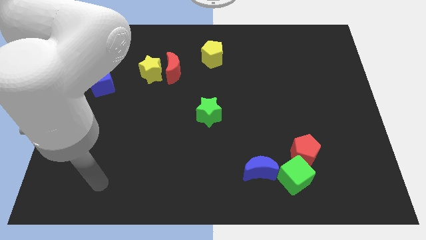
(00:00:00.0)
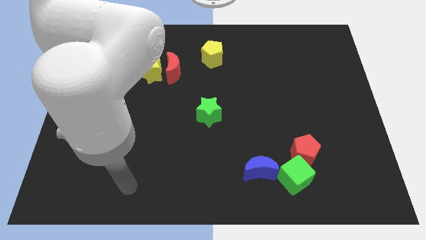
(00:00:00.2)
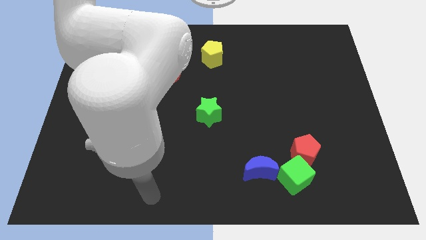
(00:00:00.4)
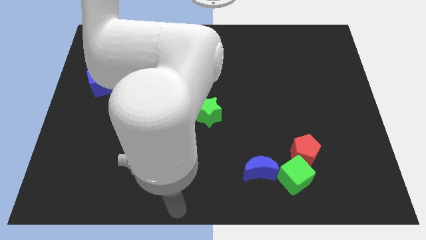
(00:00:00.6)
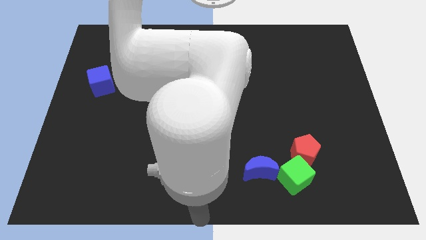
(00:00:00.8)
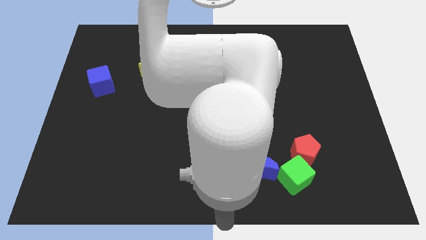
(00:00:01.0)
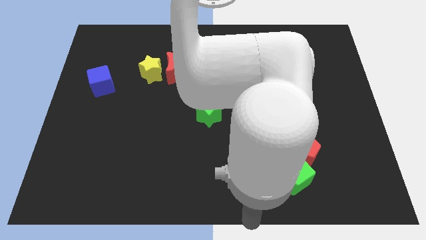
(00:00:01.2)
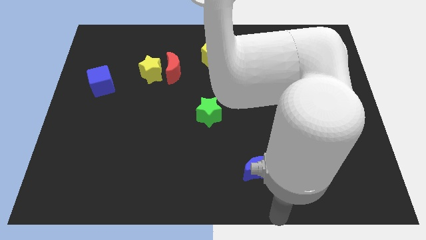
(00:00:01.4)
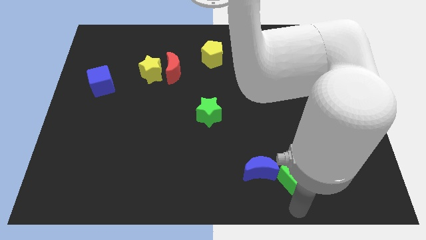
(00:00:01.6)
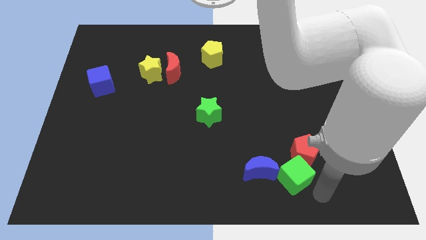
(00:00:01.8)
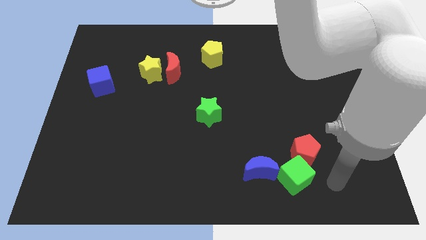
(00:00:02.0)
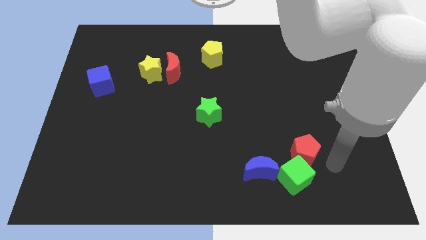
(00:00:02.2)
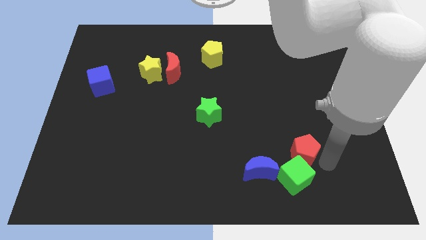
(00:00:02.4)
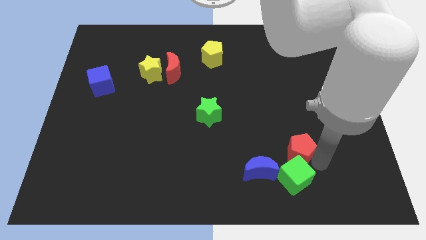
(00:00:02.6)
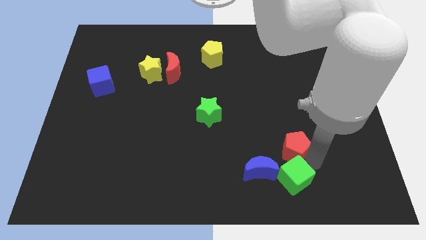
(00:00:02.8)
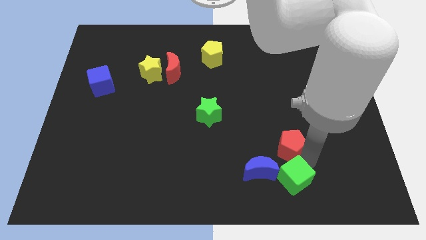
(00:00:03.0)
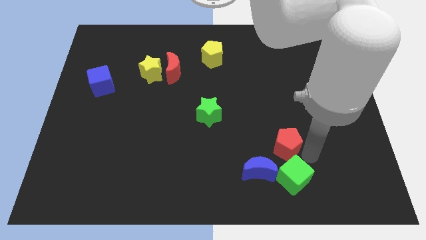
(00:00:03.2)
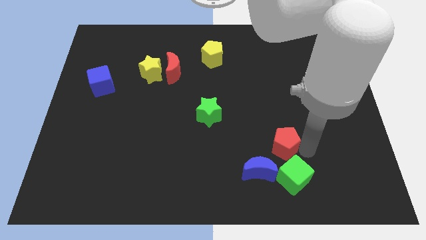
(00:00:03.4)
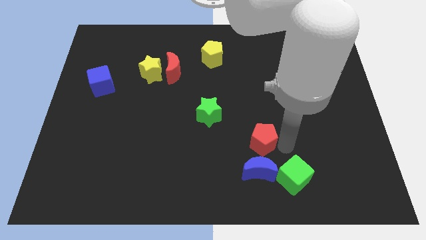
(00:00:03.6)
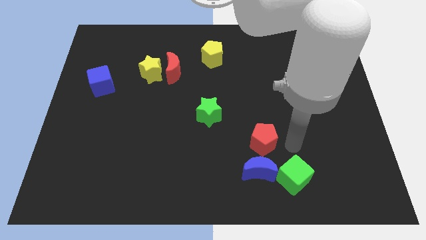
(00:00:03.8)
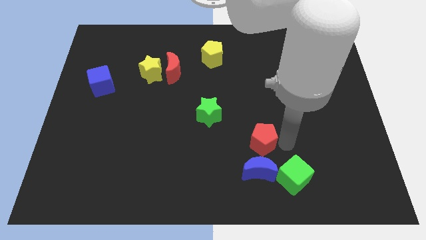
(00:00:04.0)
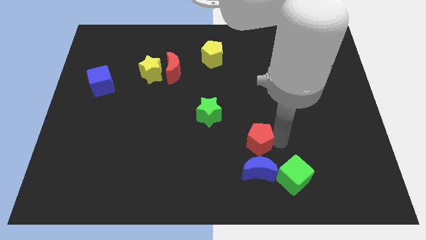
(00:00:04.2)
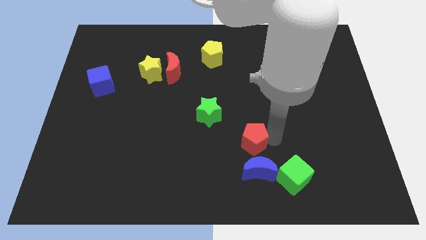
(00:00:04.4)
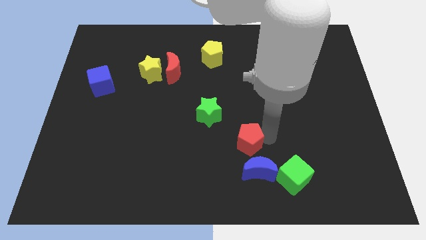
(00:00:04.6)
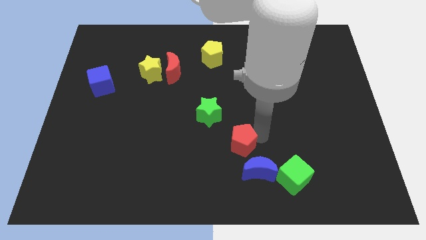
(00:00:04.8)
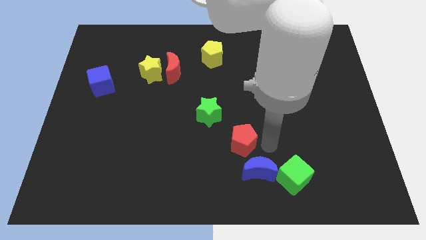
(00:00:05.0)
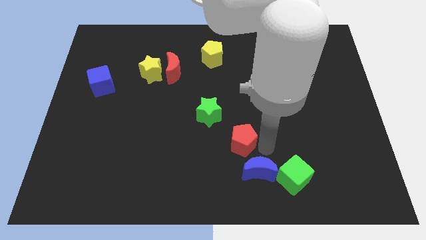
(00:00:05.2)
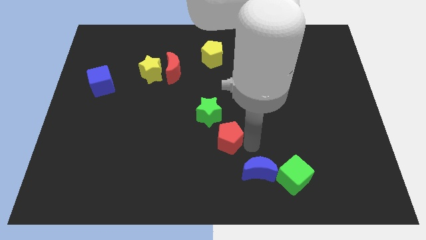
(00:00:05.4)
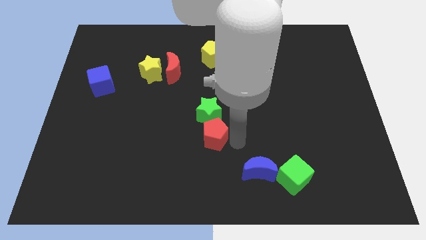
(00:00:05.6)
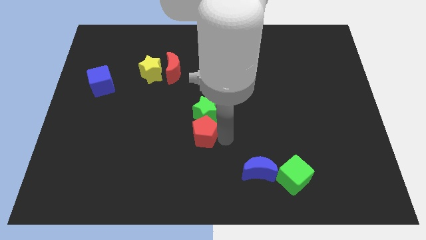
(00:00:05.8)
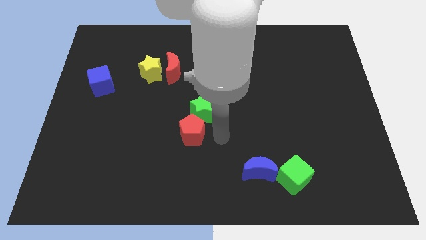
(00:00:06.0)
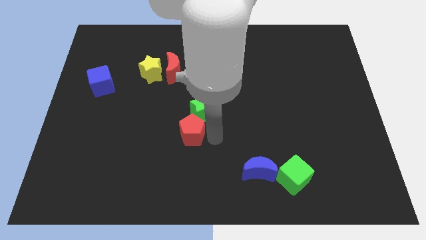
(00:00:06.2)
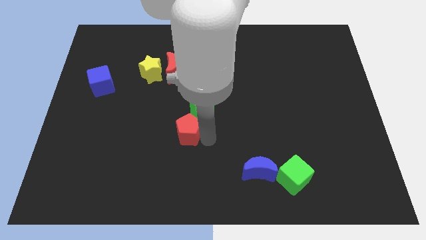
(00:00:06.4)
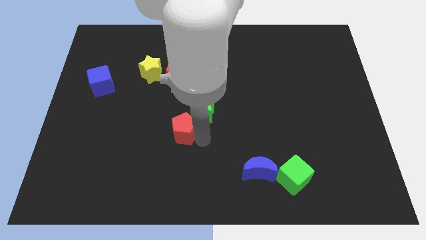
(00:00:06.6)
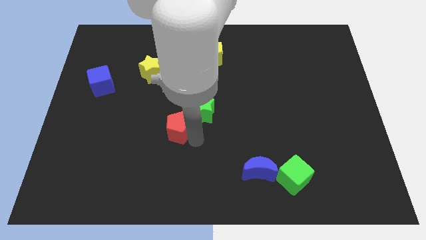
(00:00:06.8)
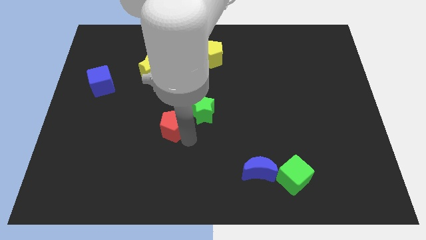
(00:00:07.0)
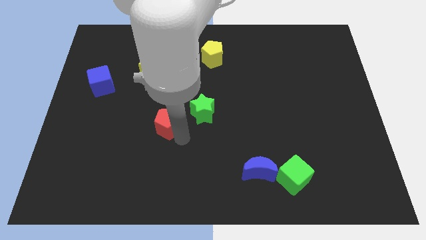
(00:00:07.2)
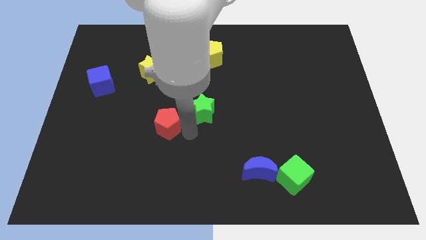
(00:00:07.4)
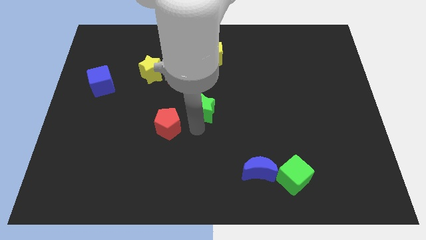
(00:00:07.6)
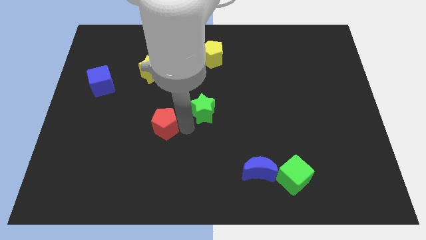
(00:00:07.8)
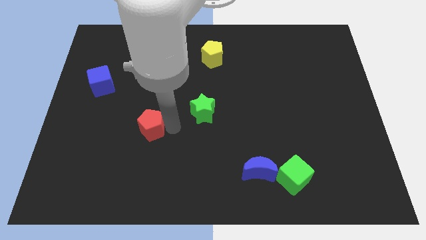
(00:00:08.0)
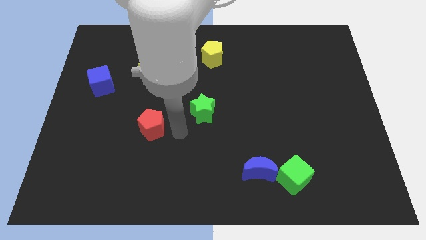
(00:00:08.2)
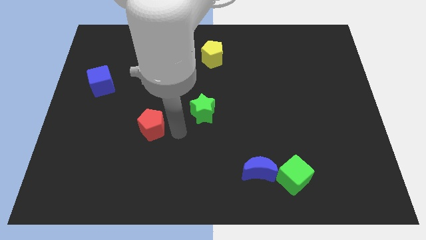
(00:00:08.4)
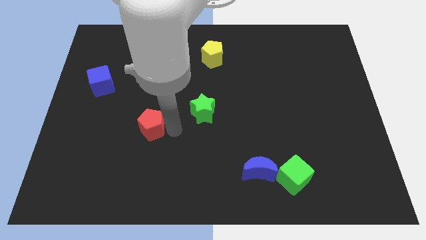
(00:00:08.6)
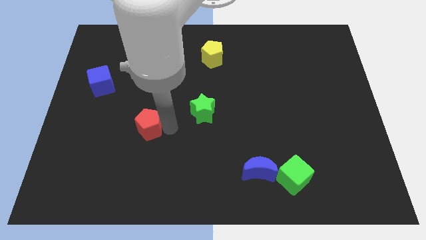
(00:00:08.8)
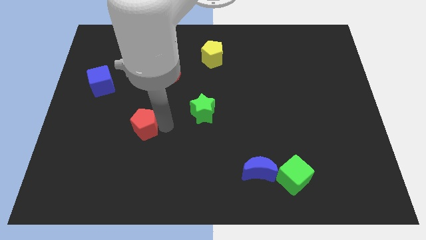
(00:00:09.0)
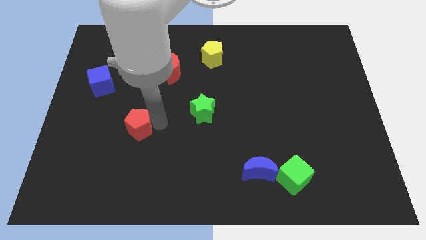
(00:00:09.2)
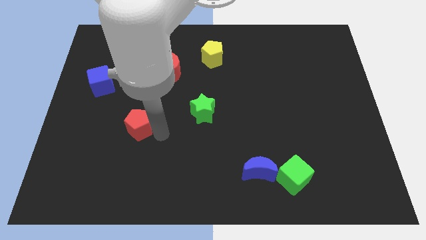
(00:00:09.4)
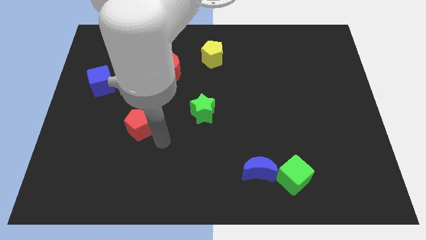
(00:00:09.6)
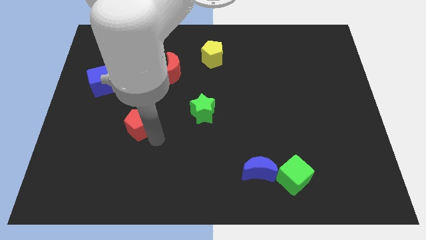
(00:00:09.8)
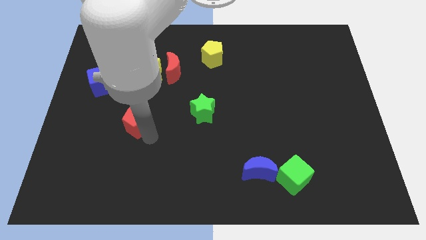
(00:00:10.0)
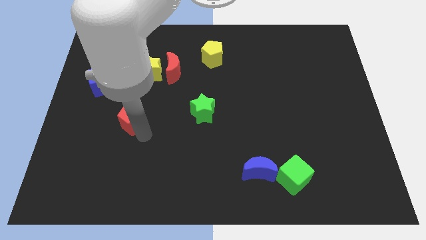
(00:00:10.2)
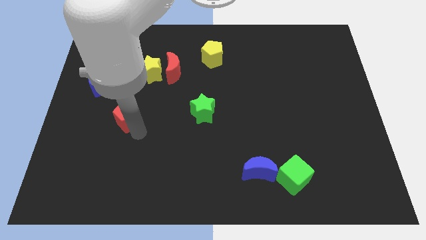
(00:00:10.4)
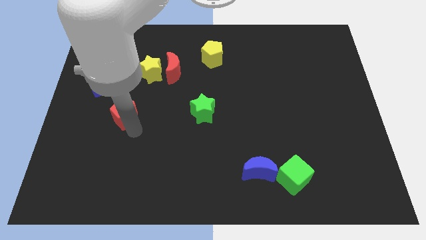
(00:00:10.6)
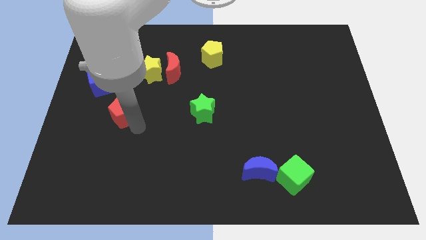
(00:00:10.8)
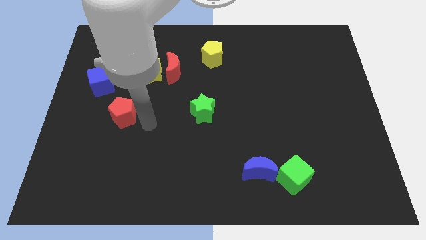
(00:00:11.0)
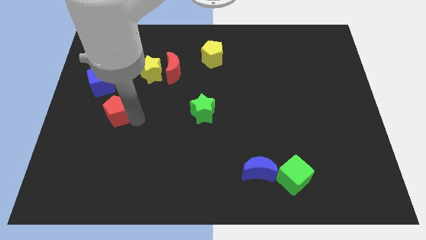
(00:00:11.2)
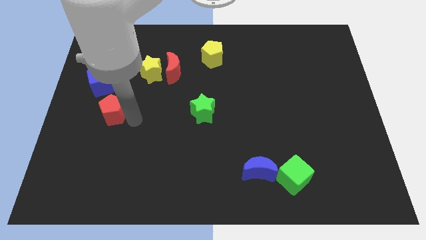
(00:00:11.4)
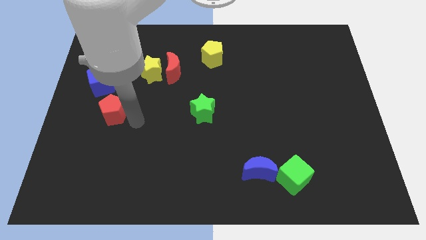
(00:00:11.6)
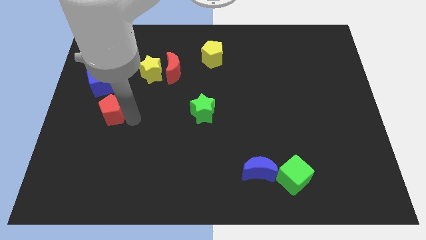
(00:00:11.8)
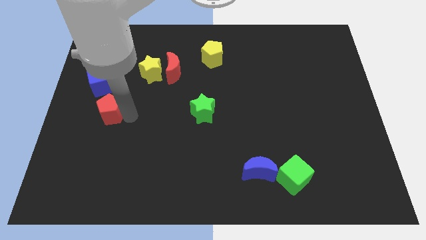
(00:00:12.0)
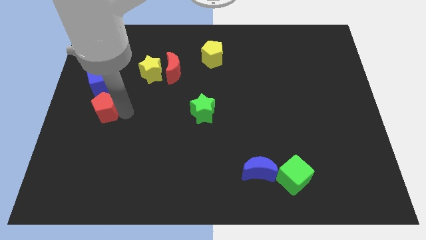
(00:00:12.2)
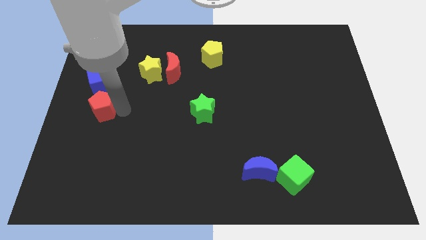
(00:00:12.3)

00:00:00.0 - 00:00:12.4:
put the red pentagon to the left side

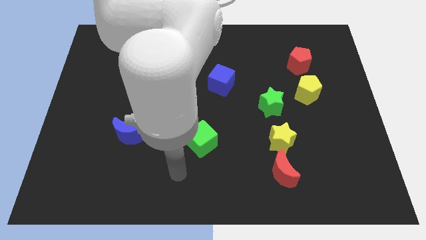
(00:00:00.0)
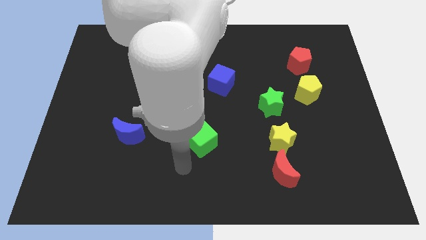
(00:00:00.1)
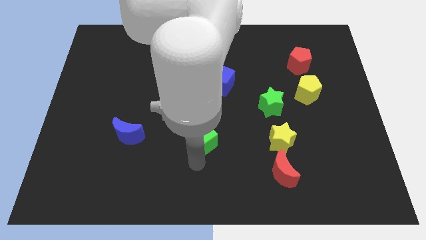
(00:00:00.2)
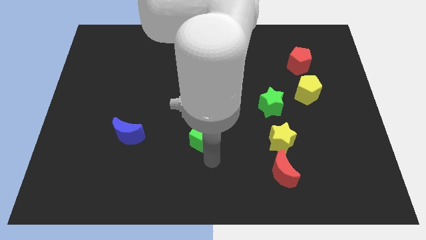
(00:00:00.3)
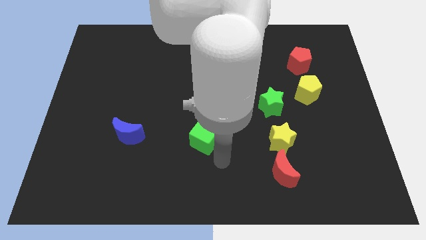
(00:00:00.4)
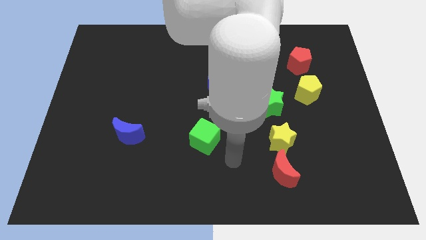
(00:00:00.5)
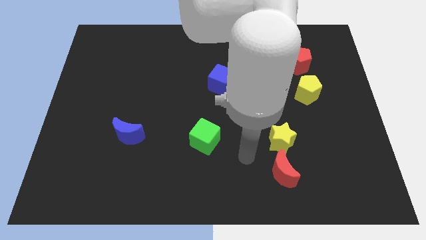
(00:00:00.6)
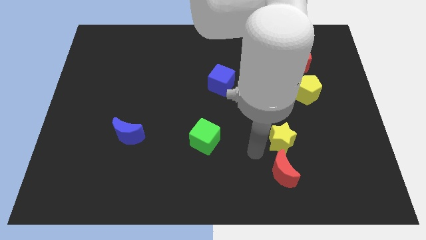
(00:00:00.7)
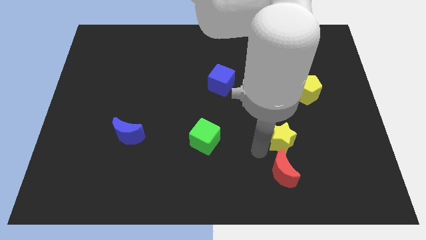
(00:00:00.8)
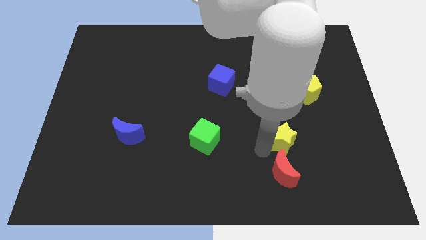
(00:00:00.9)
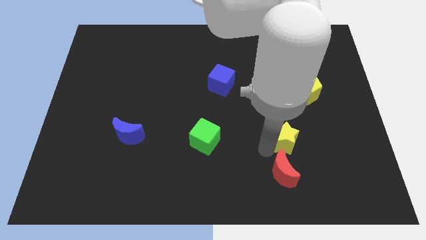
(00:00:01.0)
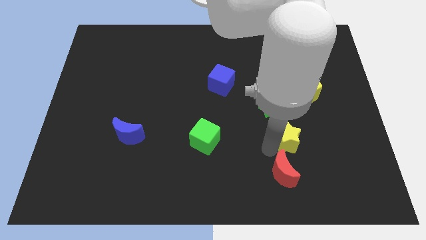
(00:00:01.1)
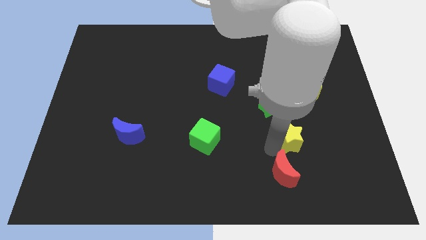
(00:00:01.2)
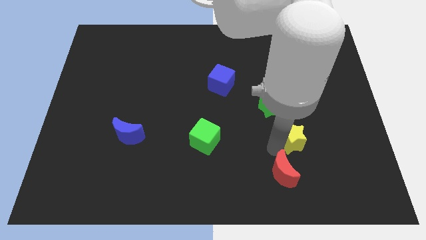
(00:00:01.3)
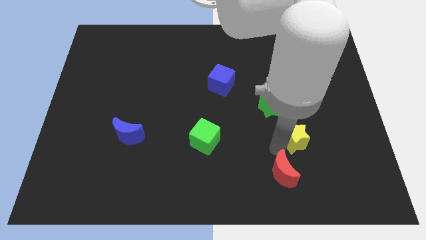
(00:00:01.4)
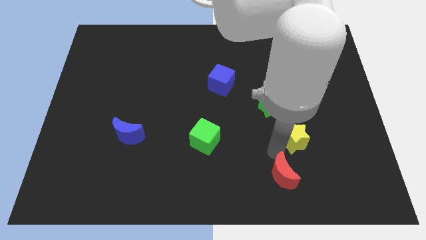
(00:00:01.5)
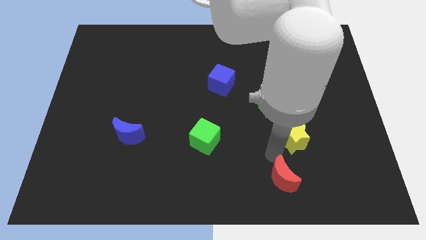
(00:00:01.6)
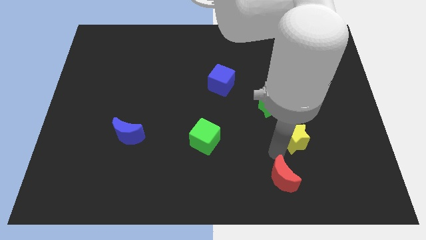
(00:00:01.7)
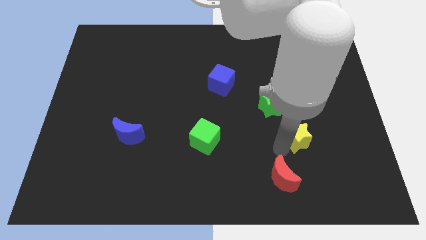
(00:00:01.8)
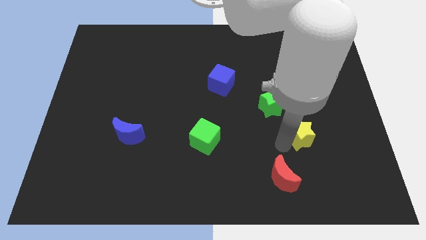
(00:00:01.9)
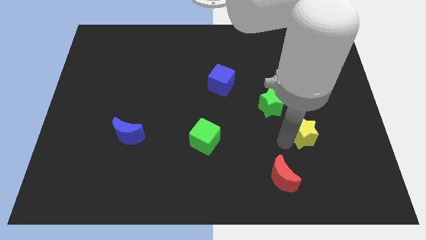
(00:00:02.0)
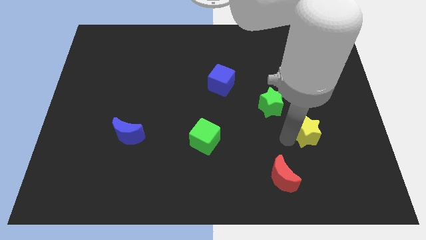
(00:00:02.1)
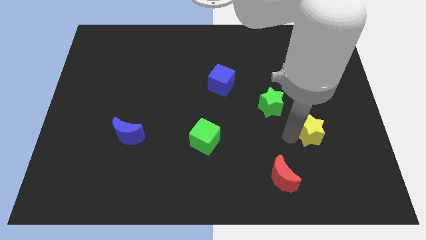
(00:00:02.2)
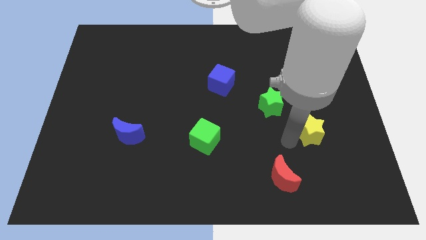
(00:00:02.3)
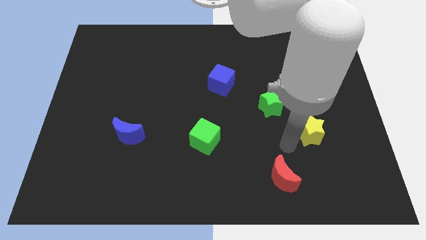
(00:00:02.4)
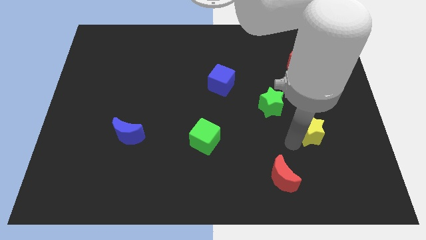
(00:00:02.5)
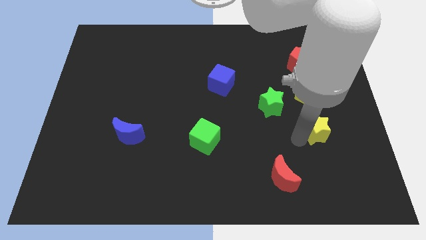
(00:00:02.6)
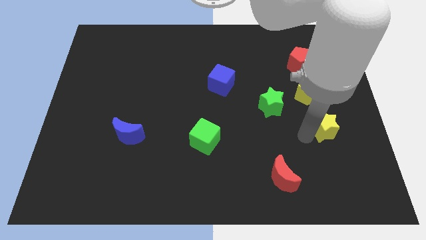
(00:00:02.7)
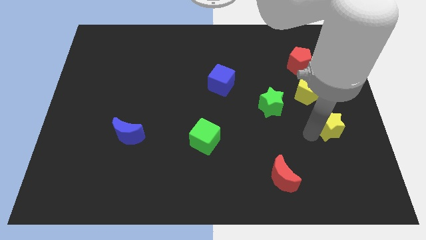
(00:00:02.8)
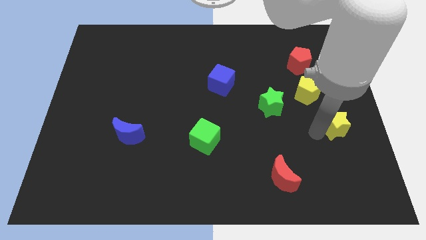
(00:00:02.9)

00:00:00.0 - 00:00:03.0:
move the yellow star to the right side
